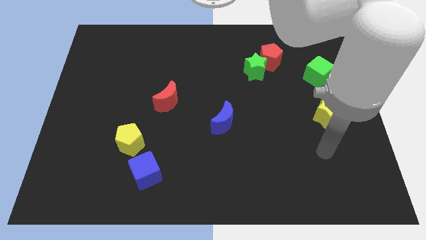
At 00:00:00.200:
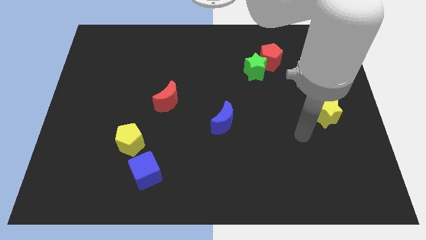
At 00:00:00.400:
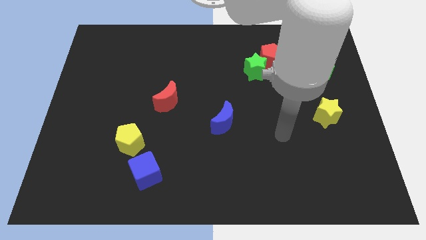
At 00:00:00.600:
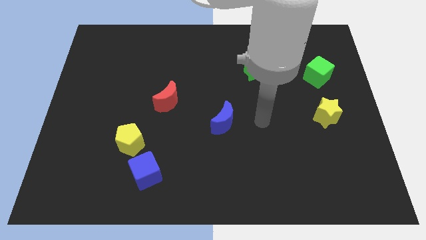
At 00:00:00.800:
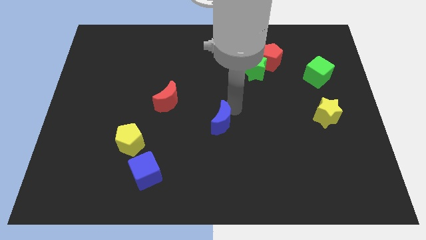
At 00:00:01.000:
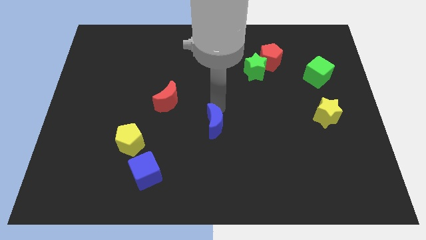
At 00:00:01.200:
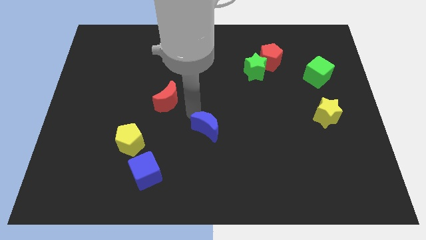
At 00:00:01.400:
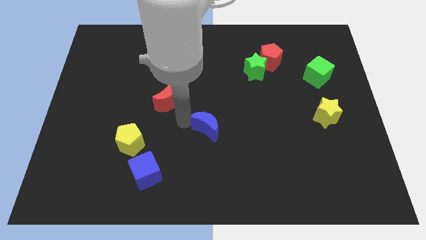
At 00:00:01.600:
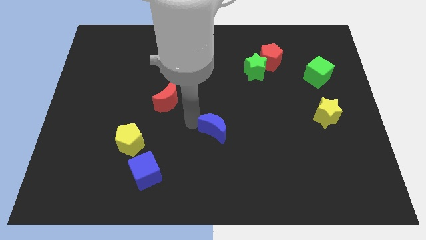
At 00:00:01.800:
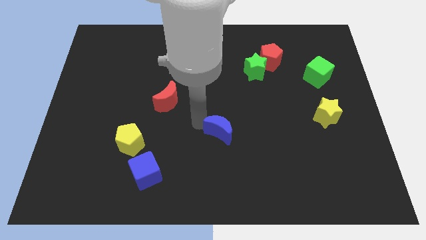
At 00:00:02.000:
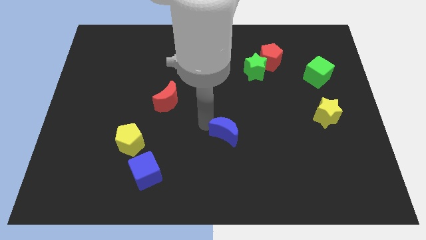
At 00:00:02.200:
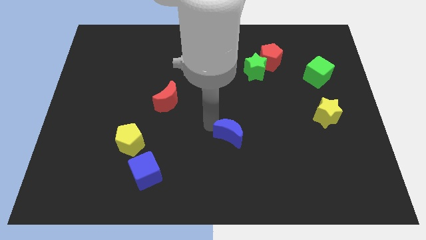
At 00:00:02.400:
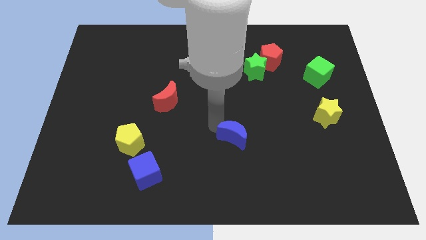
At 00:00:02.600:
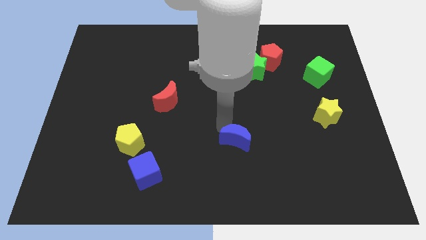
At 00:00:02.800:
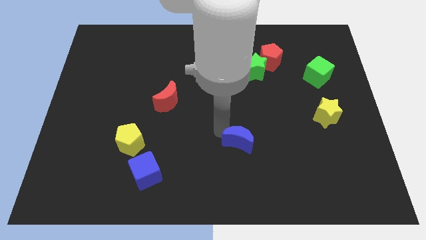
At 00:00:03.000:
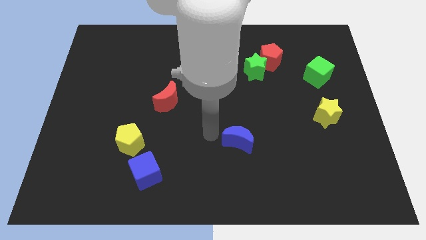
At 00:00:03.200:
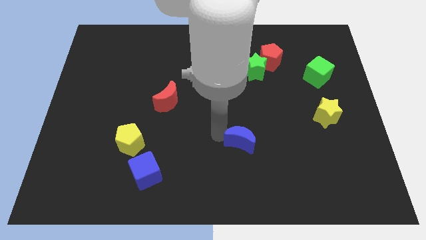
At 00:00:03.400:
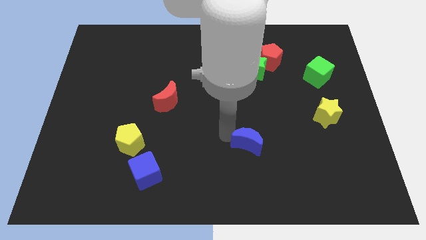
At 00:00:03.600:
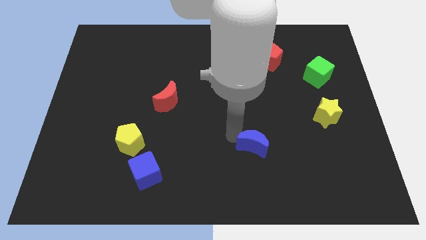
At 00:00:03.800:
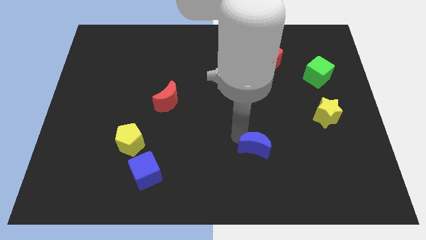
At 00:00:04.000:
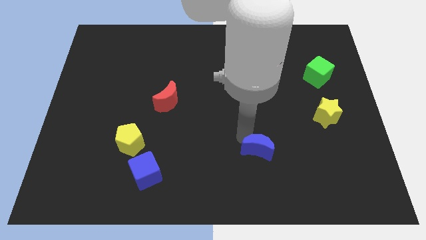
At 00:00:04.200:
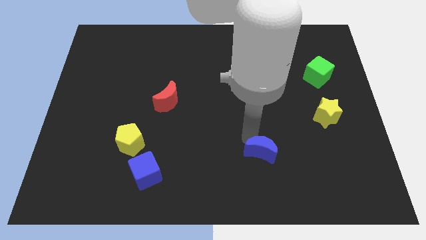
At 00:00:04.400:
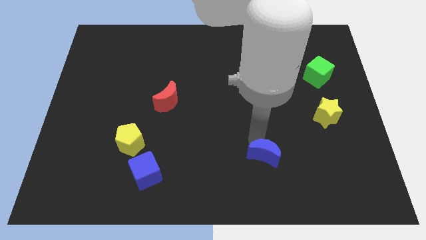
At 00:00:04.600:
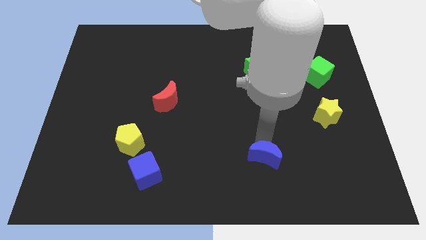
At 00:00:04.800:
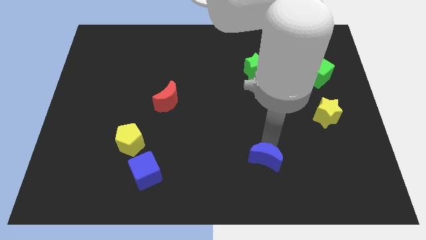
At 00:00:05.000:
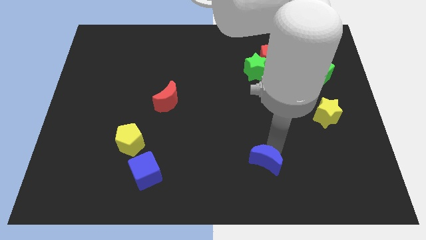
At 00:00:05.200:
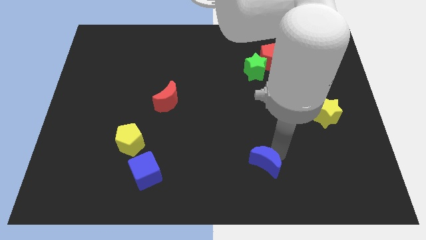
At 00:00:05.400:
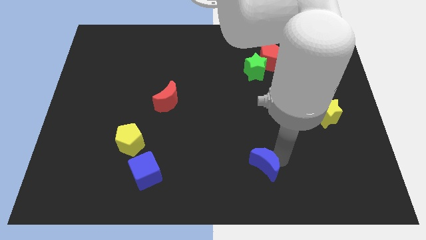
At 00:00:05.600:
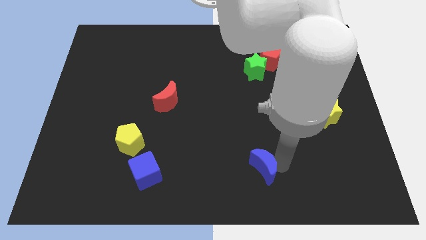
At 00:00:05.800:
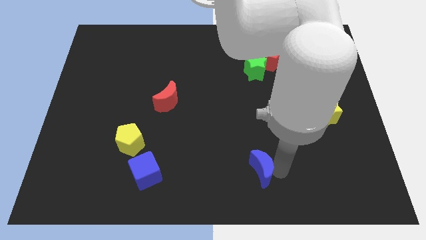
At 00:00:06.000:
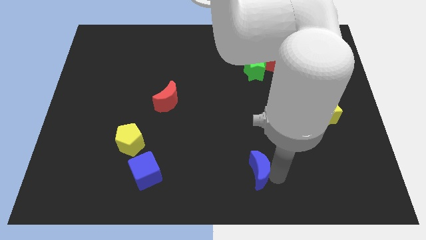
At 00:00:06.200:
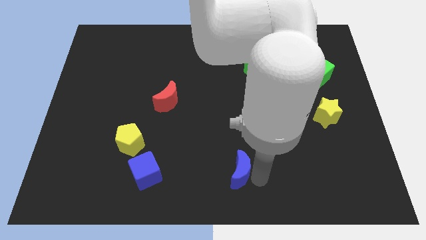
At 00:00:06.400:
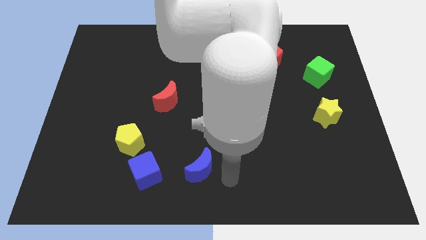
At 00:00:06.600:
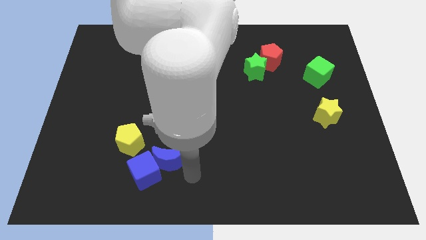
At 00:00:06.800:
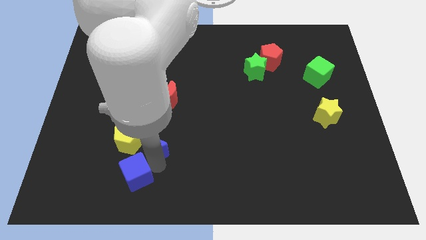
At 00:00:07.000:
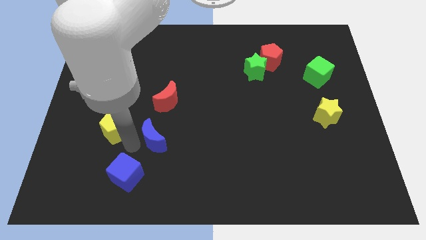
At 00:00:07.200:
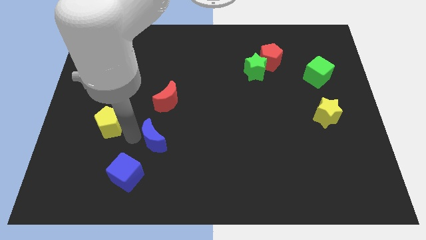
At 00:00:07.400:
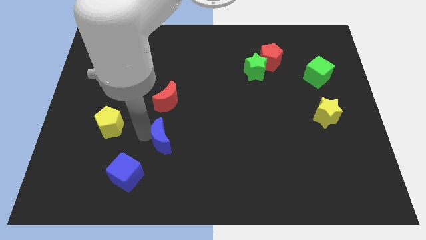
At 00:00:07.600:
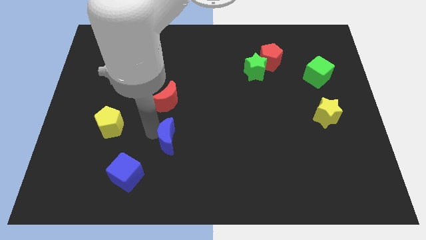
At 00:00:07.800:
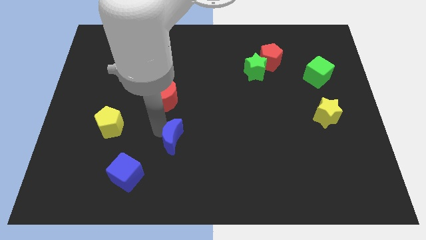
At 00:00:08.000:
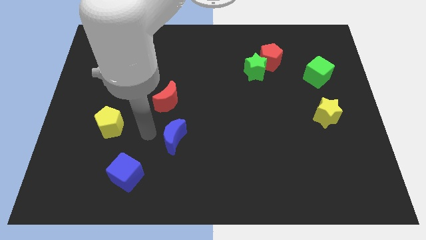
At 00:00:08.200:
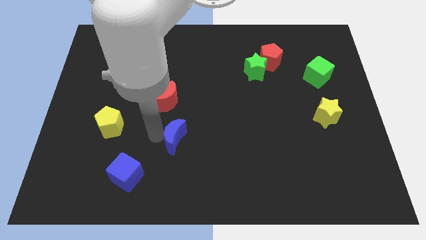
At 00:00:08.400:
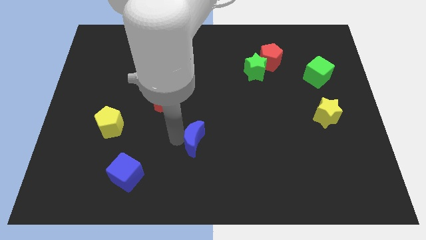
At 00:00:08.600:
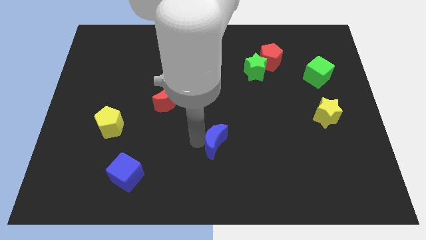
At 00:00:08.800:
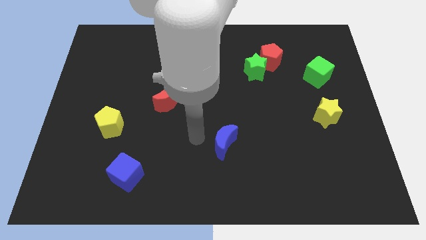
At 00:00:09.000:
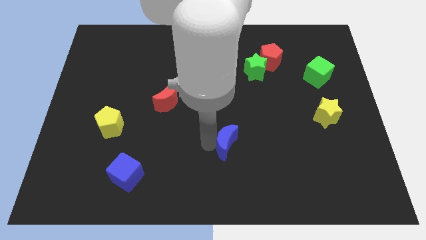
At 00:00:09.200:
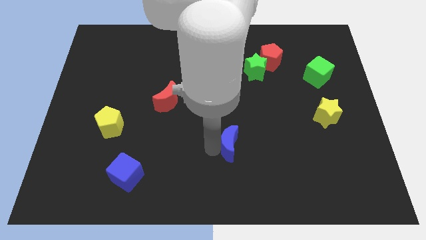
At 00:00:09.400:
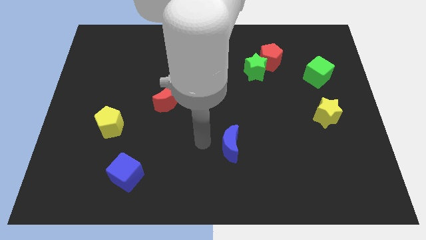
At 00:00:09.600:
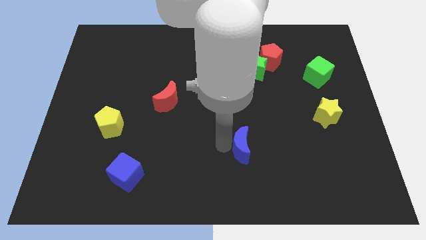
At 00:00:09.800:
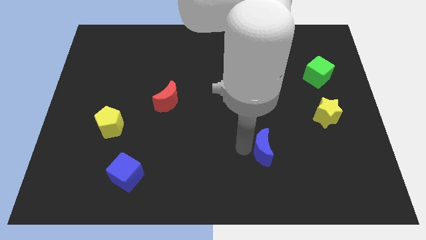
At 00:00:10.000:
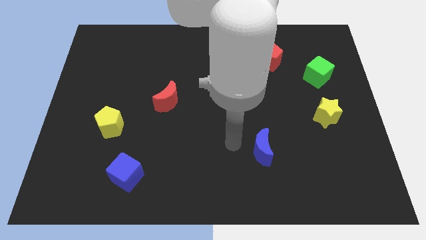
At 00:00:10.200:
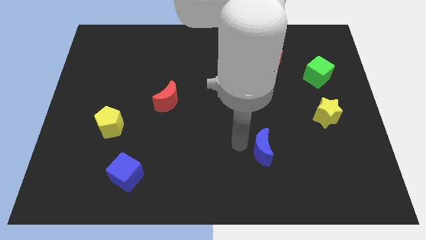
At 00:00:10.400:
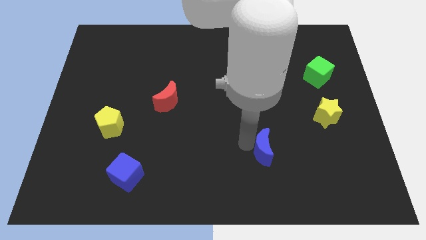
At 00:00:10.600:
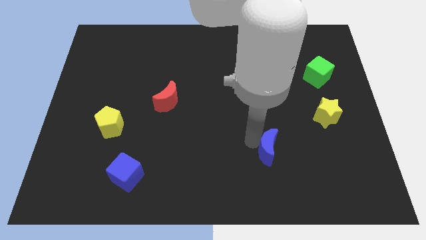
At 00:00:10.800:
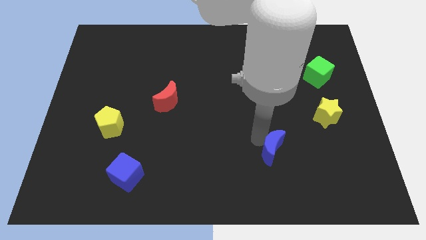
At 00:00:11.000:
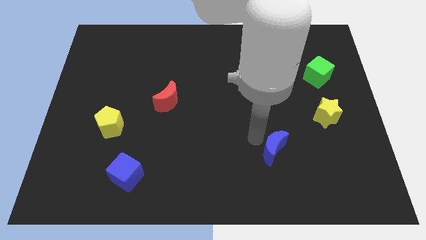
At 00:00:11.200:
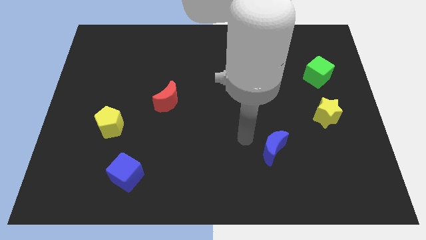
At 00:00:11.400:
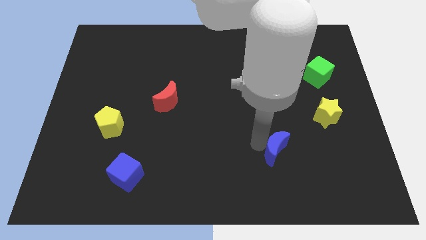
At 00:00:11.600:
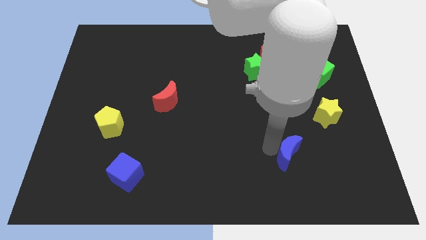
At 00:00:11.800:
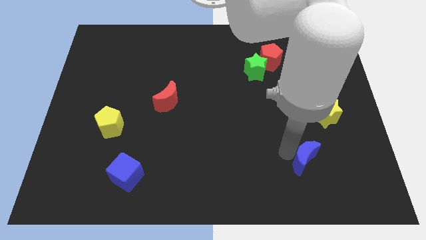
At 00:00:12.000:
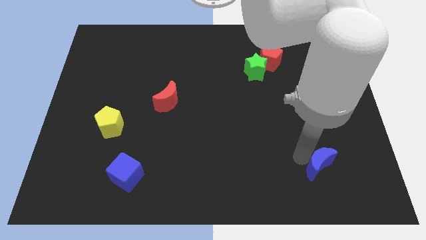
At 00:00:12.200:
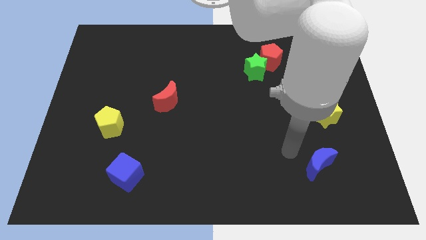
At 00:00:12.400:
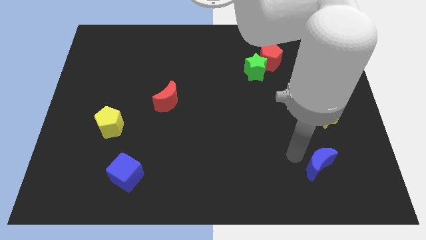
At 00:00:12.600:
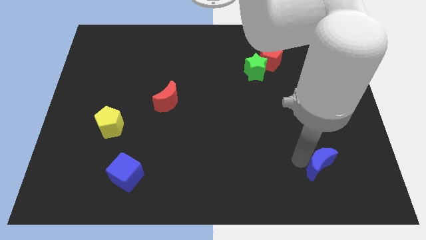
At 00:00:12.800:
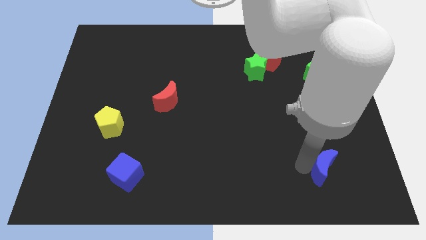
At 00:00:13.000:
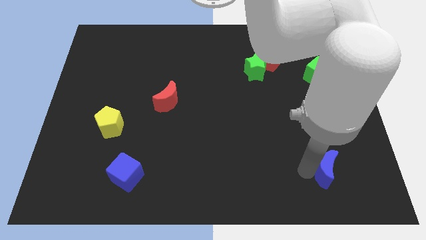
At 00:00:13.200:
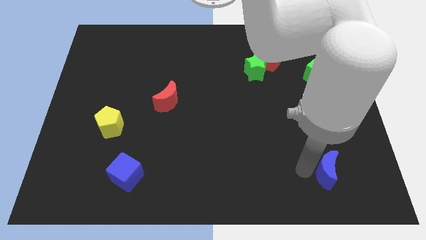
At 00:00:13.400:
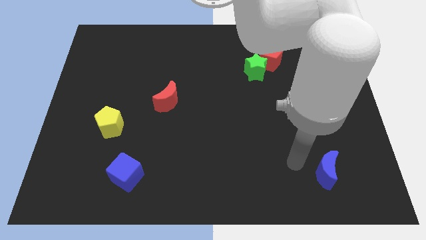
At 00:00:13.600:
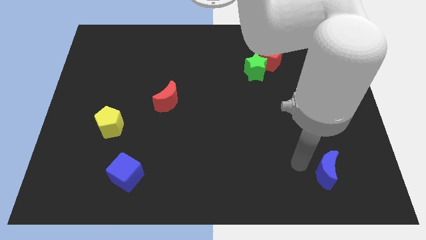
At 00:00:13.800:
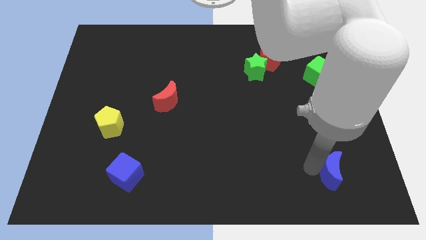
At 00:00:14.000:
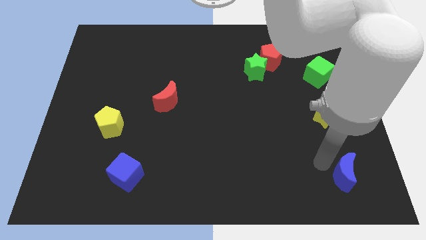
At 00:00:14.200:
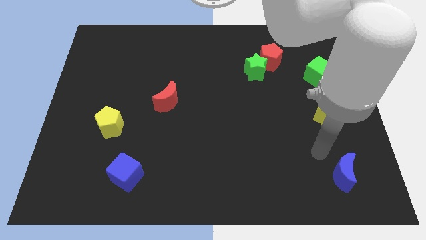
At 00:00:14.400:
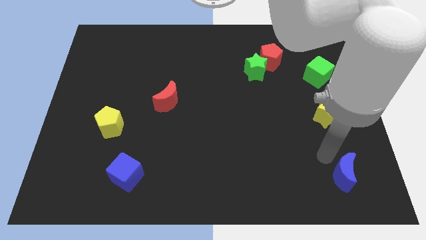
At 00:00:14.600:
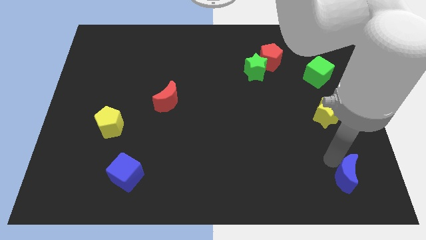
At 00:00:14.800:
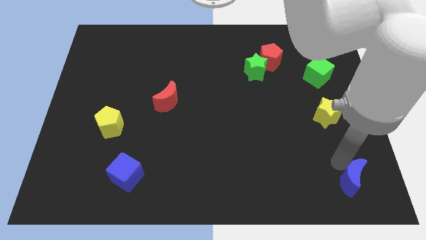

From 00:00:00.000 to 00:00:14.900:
slide the blue moon to the bottom right
